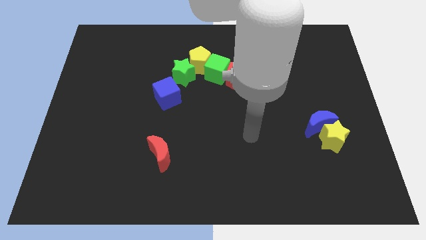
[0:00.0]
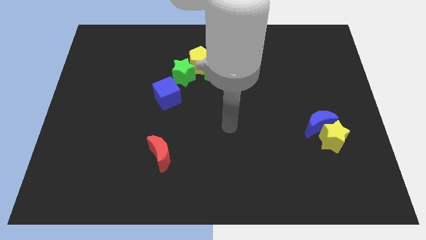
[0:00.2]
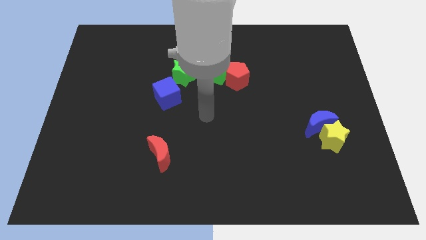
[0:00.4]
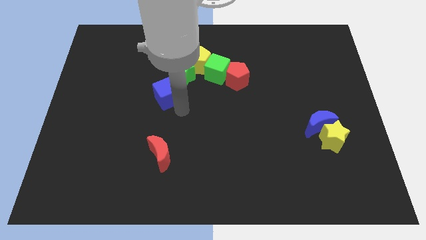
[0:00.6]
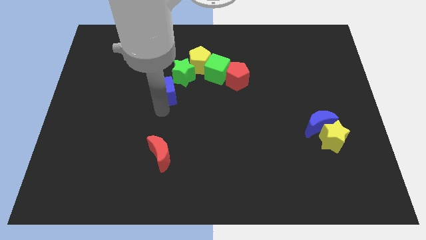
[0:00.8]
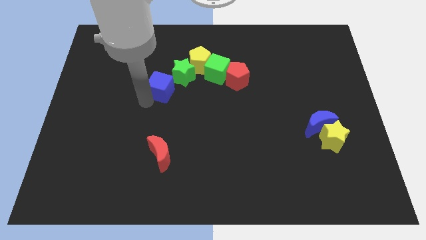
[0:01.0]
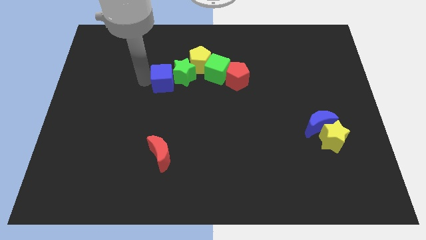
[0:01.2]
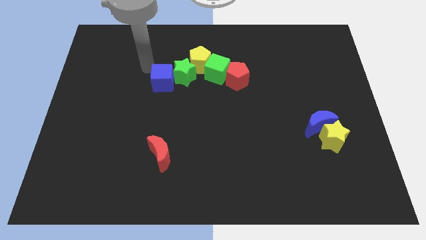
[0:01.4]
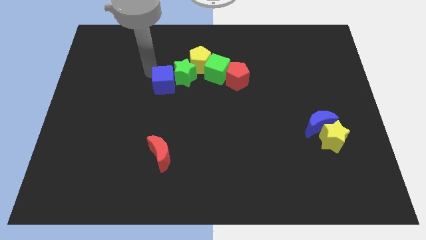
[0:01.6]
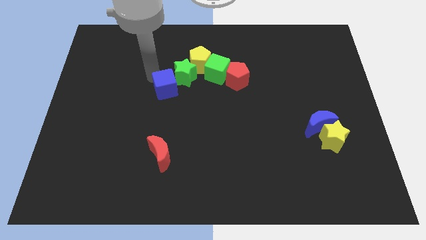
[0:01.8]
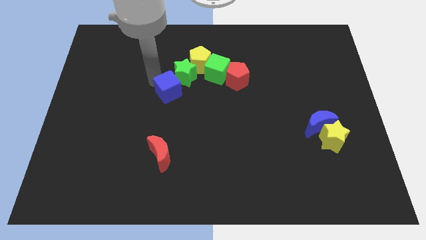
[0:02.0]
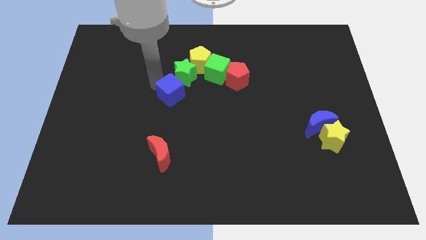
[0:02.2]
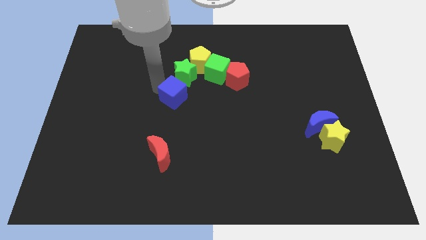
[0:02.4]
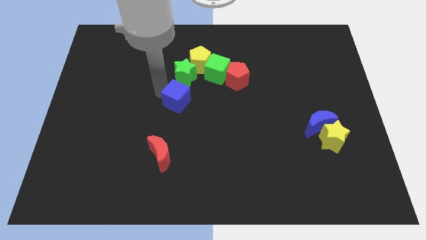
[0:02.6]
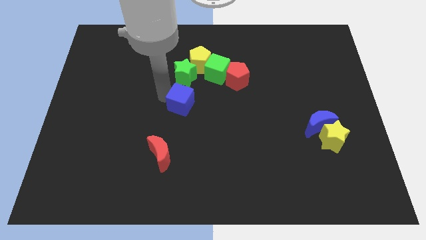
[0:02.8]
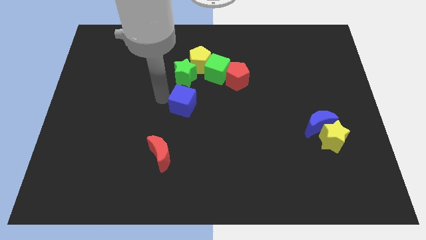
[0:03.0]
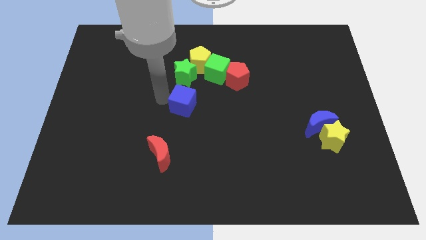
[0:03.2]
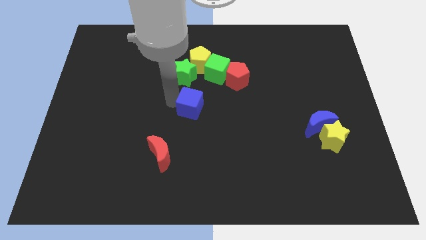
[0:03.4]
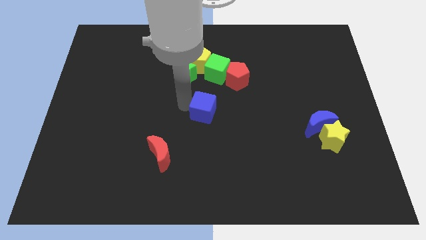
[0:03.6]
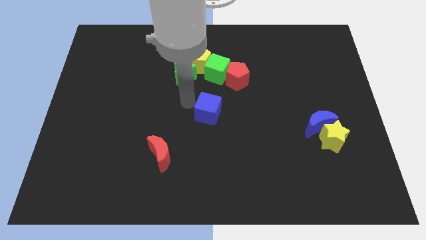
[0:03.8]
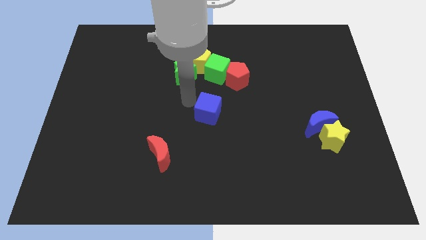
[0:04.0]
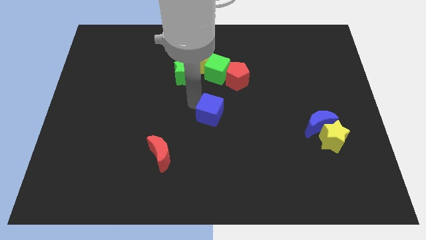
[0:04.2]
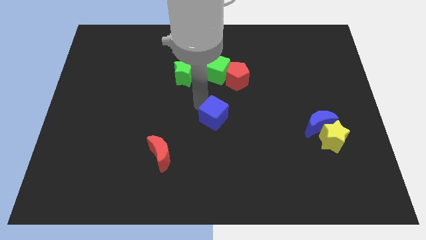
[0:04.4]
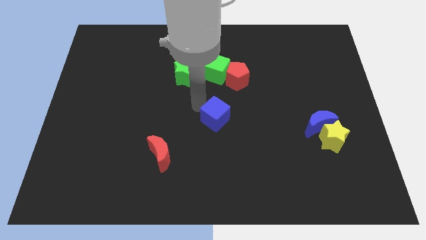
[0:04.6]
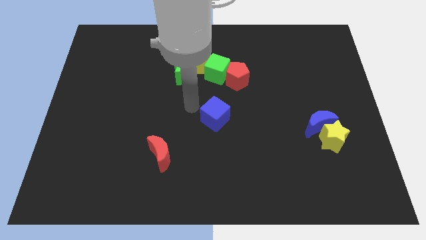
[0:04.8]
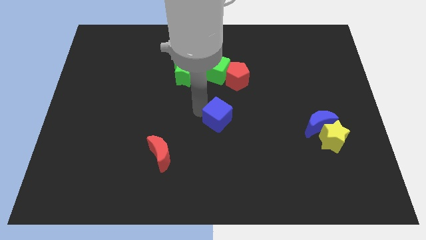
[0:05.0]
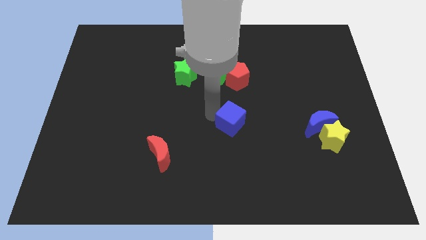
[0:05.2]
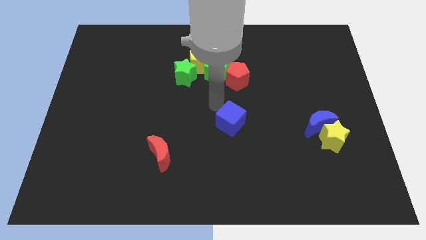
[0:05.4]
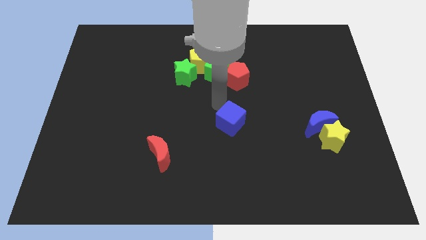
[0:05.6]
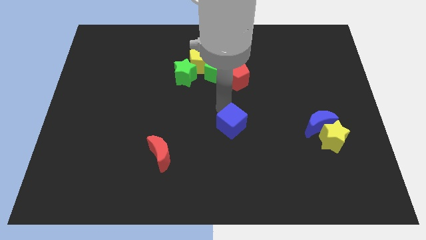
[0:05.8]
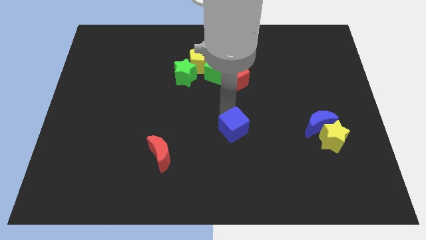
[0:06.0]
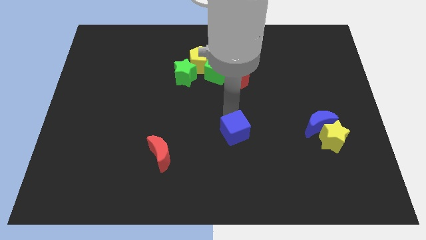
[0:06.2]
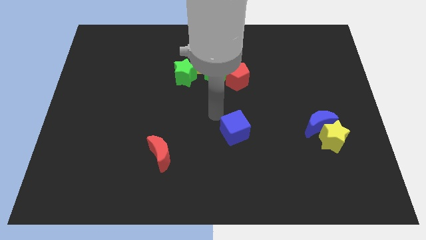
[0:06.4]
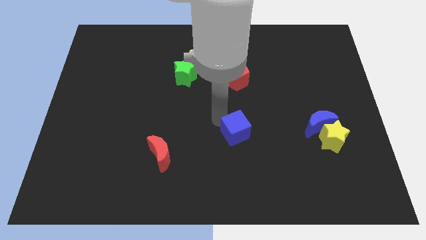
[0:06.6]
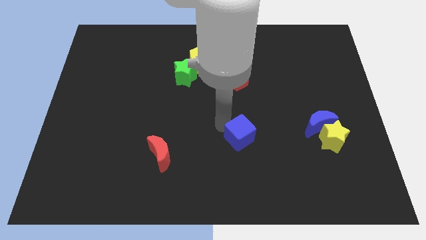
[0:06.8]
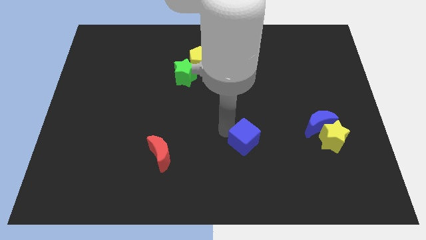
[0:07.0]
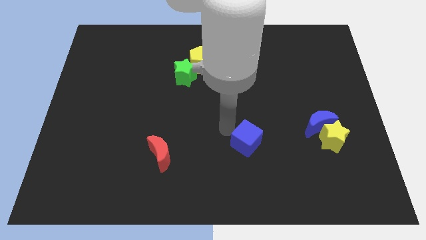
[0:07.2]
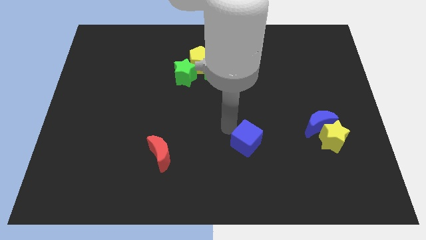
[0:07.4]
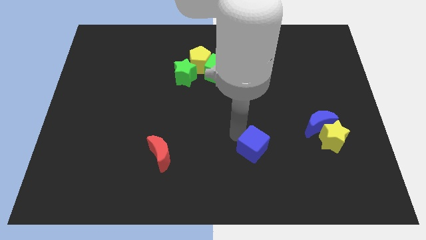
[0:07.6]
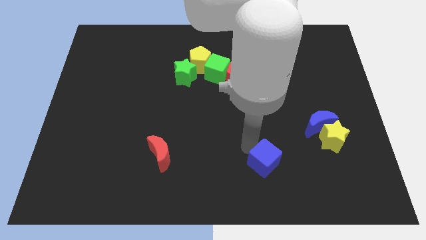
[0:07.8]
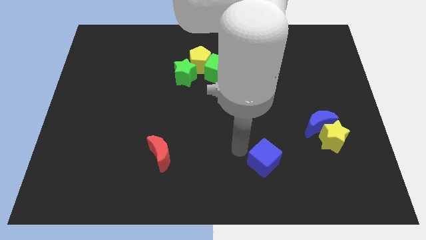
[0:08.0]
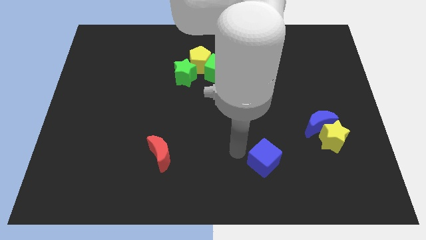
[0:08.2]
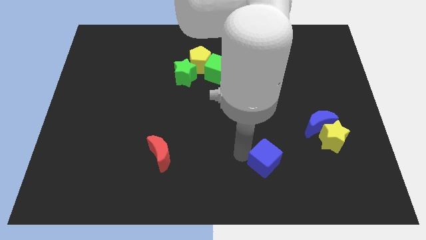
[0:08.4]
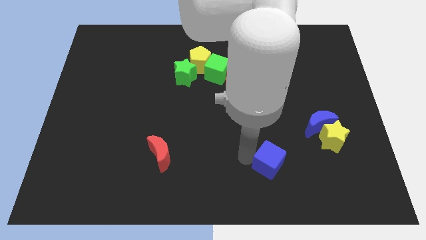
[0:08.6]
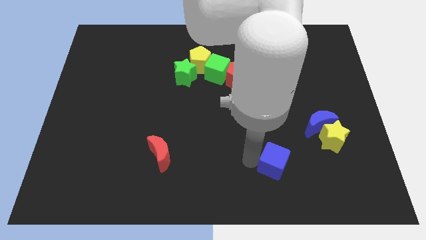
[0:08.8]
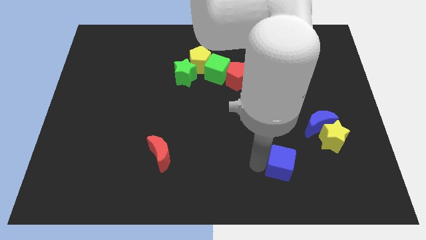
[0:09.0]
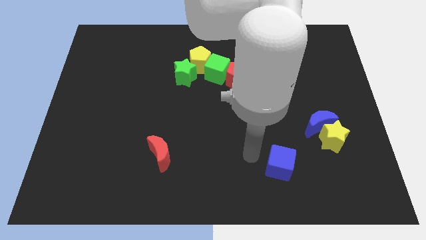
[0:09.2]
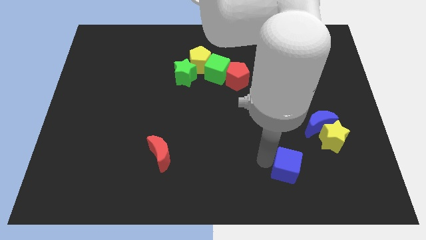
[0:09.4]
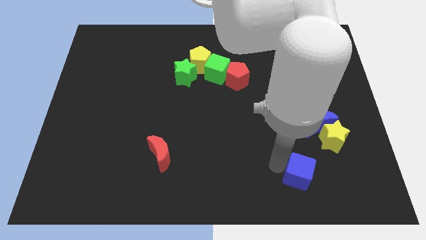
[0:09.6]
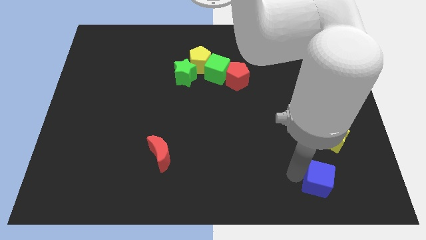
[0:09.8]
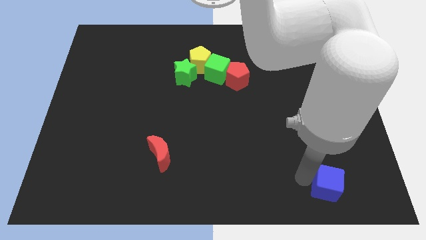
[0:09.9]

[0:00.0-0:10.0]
slide the blue cube below the yellow star

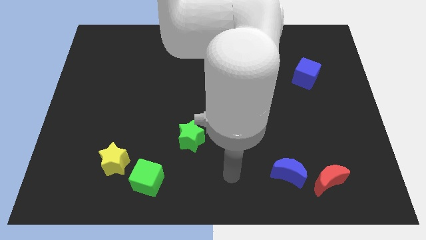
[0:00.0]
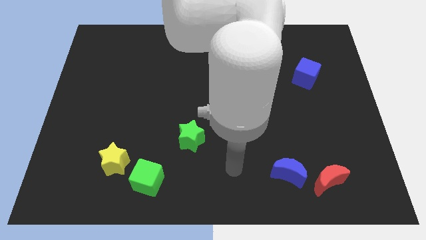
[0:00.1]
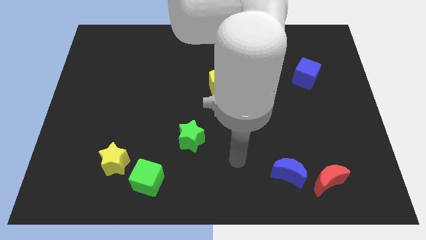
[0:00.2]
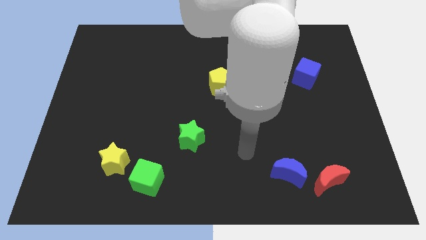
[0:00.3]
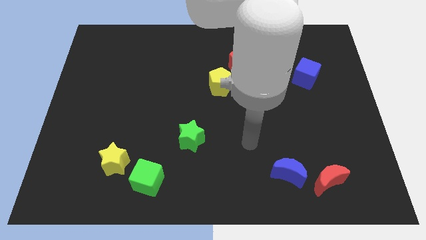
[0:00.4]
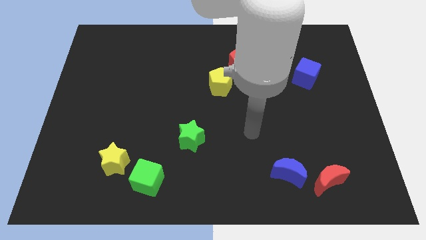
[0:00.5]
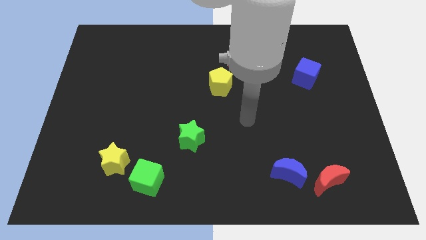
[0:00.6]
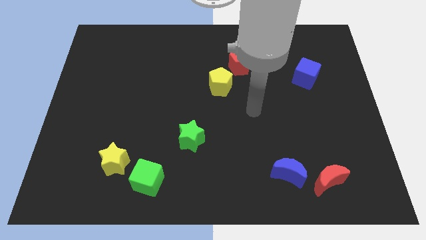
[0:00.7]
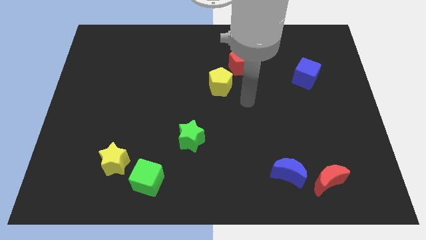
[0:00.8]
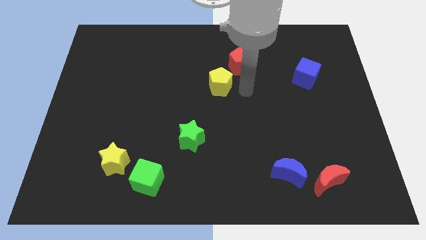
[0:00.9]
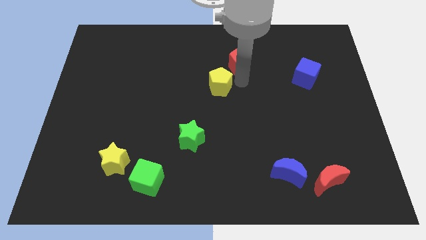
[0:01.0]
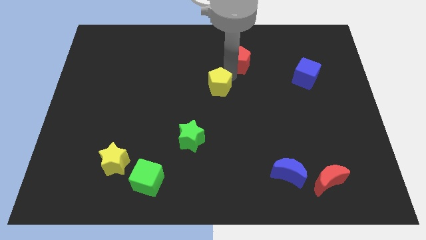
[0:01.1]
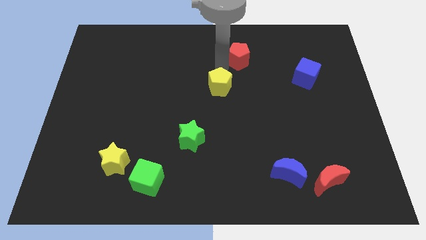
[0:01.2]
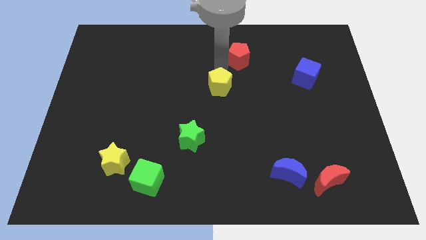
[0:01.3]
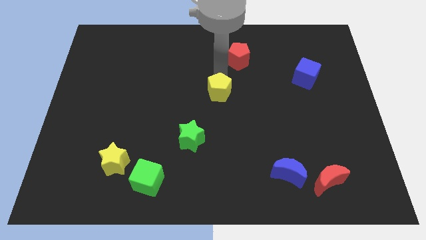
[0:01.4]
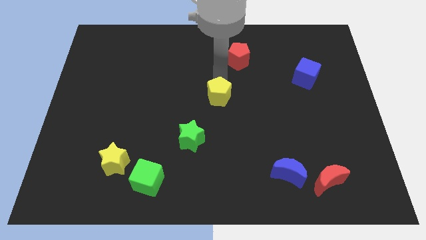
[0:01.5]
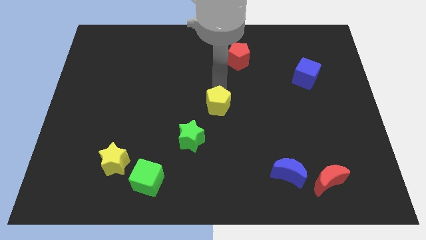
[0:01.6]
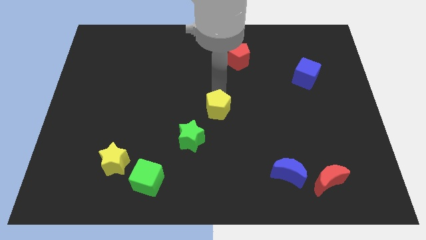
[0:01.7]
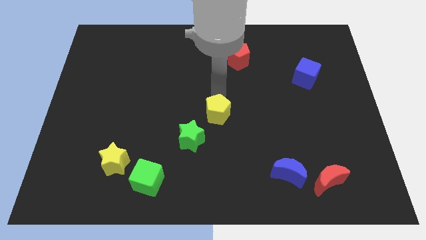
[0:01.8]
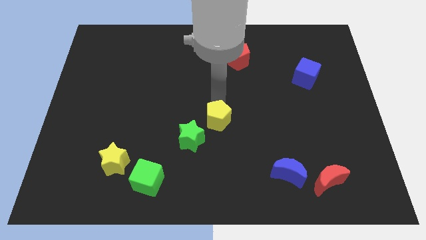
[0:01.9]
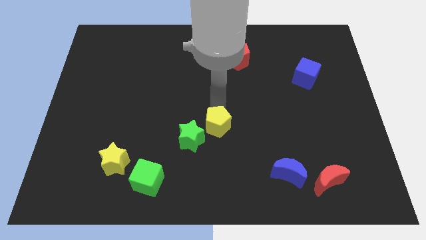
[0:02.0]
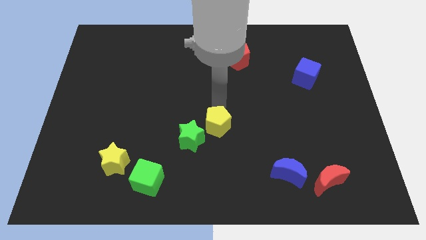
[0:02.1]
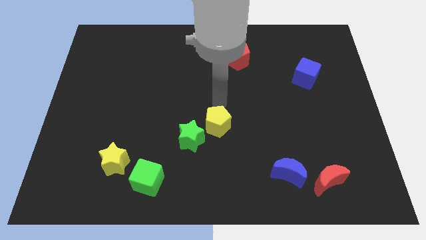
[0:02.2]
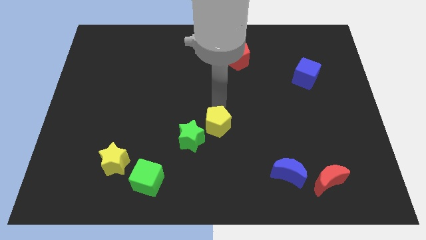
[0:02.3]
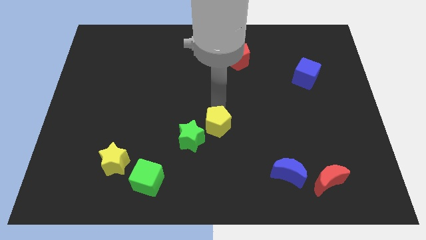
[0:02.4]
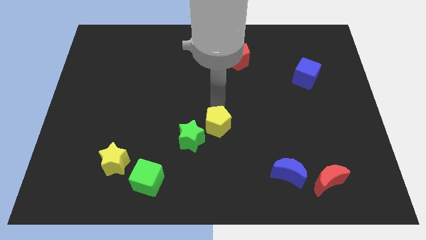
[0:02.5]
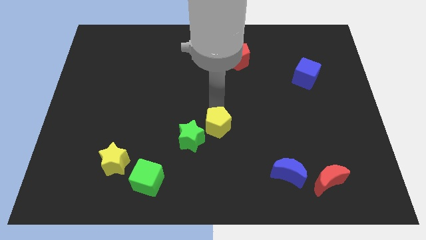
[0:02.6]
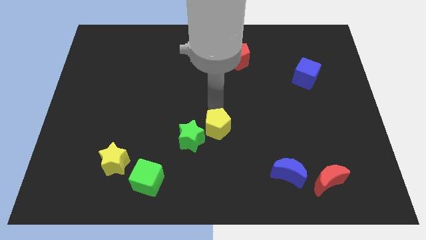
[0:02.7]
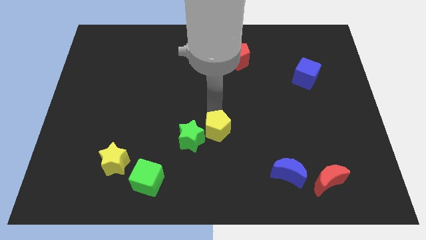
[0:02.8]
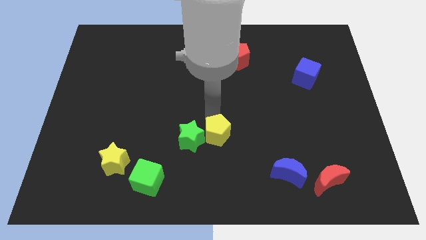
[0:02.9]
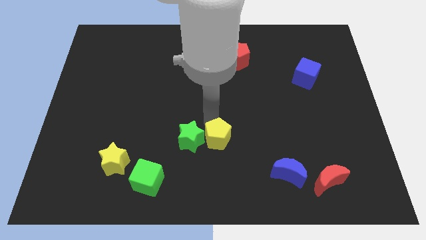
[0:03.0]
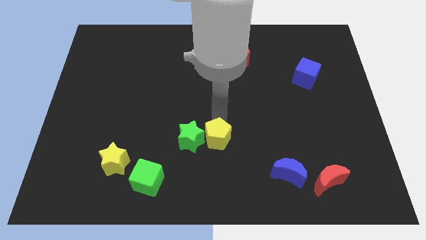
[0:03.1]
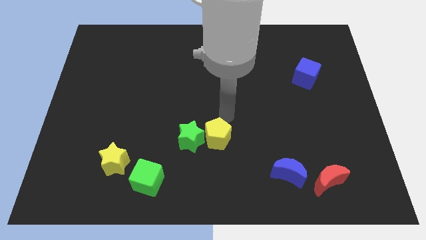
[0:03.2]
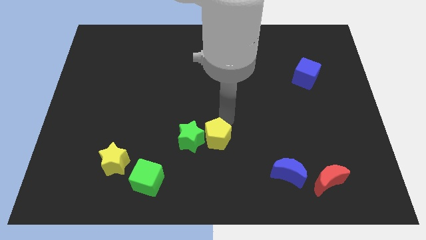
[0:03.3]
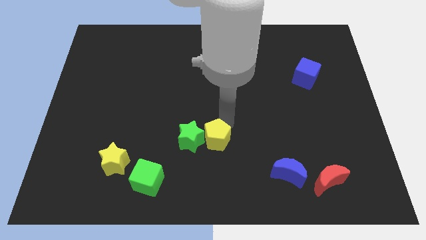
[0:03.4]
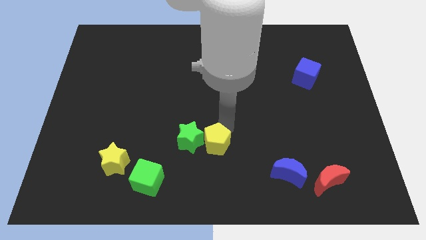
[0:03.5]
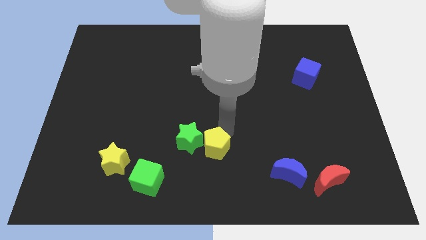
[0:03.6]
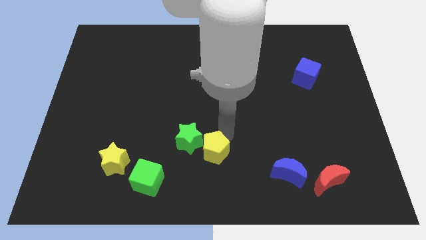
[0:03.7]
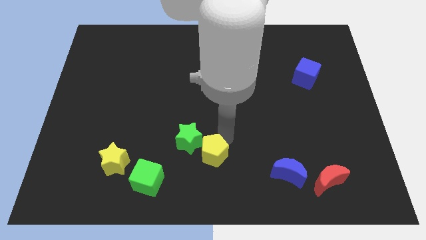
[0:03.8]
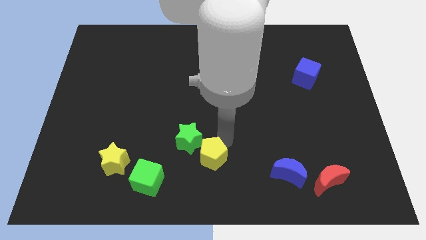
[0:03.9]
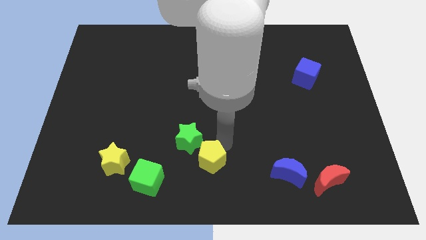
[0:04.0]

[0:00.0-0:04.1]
slide the yellow pentagon to the right of the green cube
